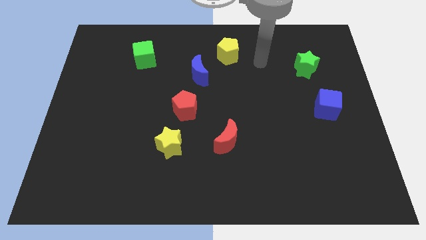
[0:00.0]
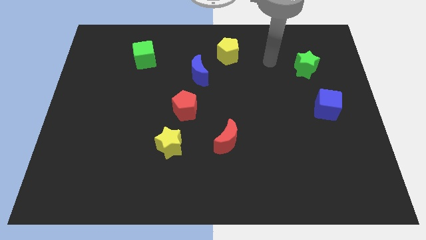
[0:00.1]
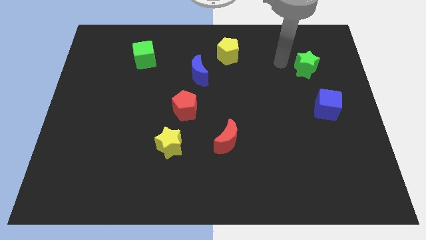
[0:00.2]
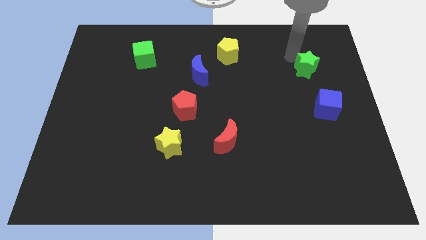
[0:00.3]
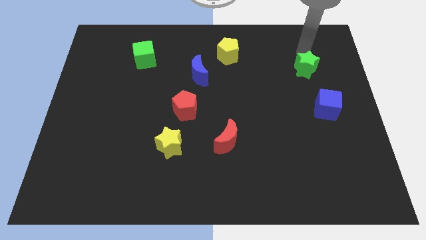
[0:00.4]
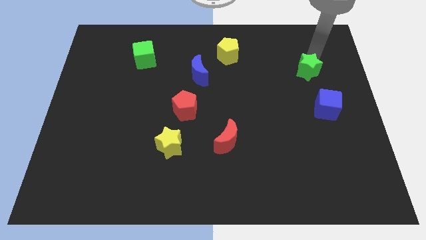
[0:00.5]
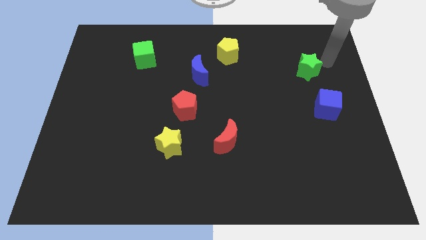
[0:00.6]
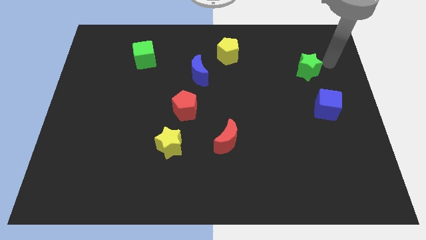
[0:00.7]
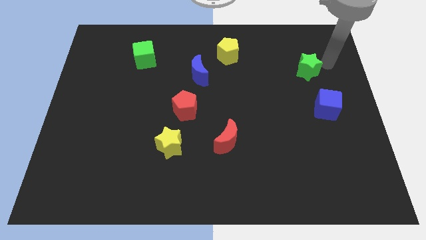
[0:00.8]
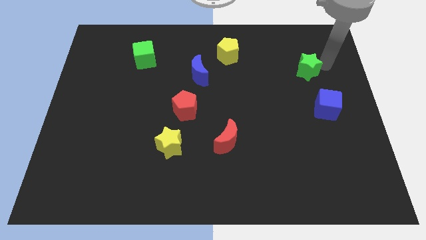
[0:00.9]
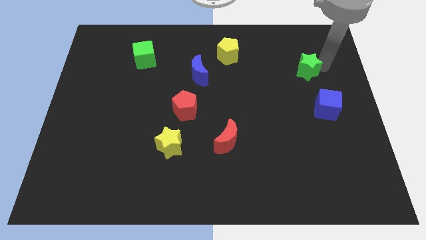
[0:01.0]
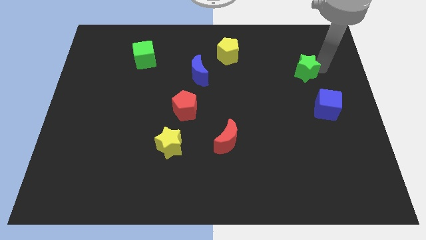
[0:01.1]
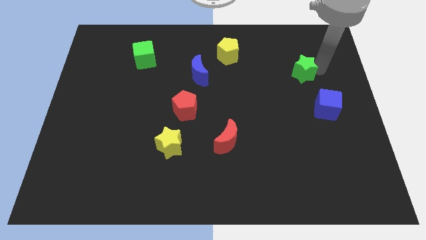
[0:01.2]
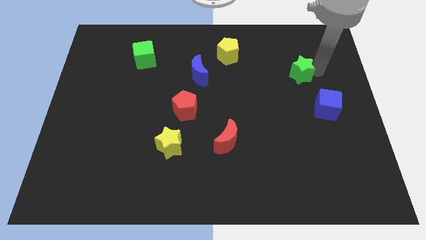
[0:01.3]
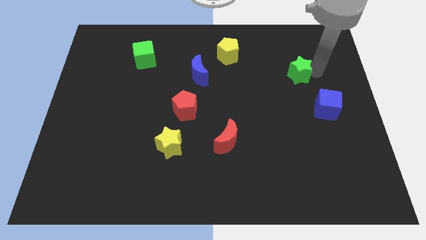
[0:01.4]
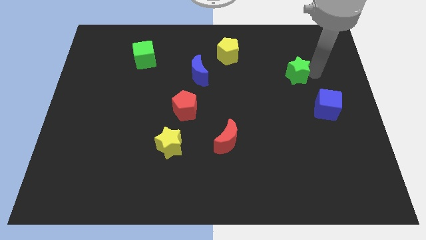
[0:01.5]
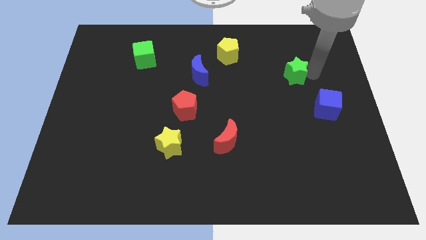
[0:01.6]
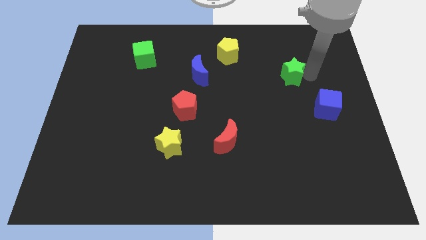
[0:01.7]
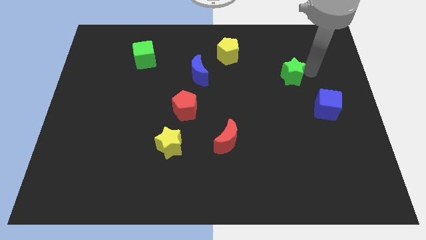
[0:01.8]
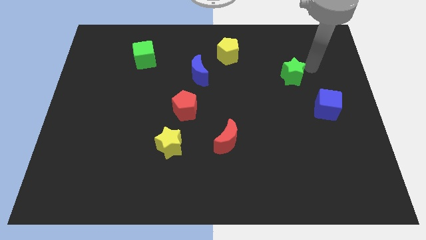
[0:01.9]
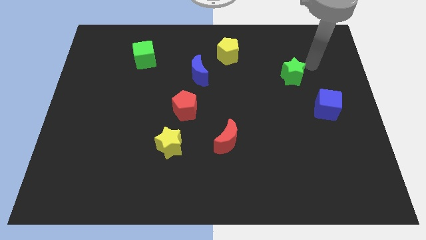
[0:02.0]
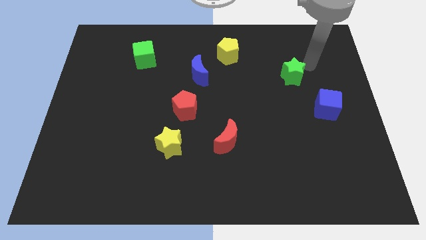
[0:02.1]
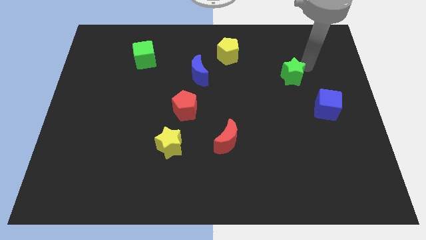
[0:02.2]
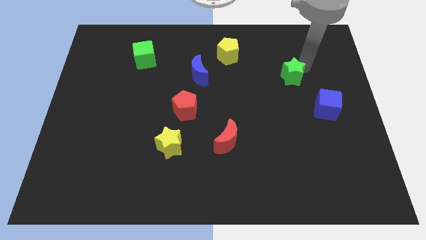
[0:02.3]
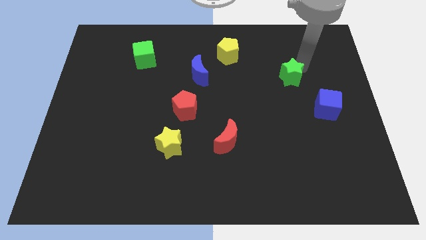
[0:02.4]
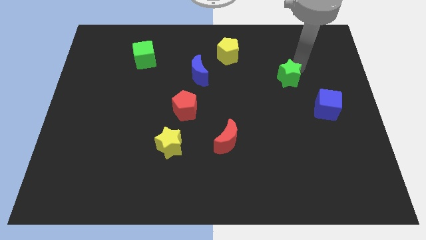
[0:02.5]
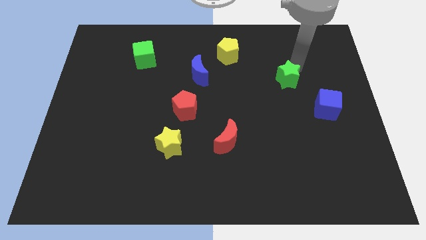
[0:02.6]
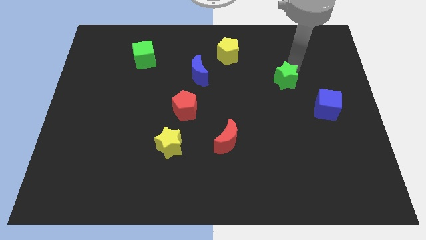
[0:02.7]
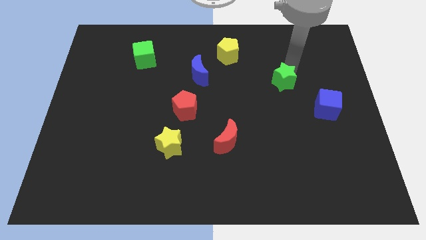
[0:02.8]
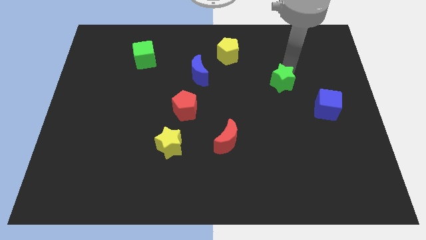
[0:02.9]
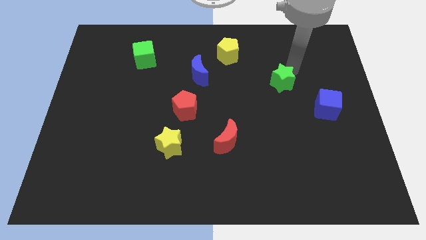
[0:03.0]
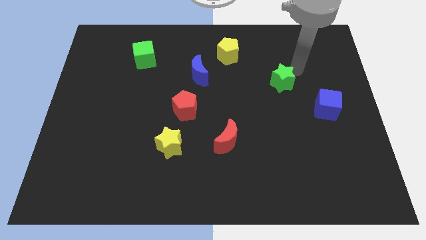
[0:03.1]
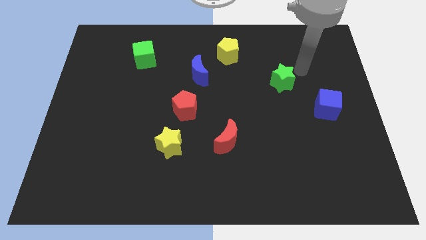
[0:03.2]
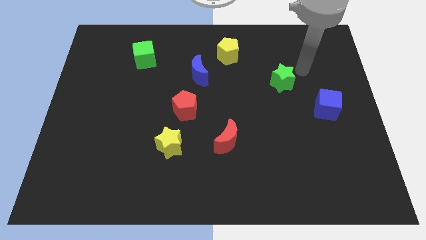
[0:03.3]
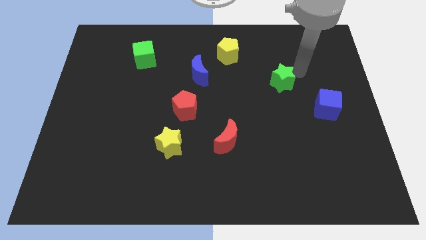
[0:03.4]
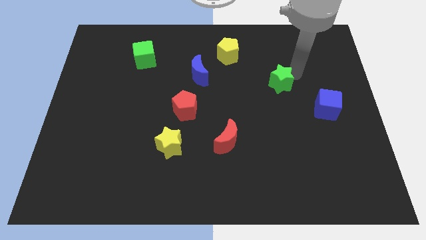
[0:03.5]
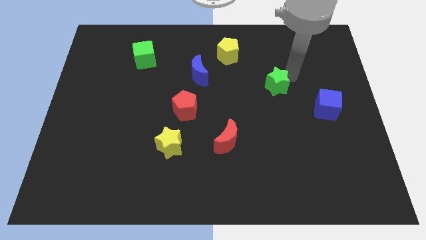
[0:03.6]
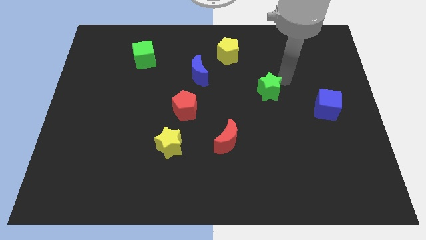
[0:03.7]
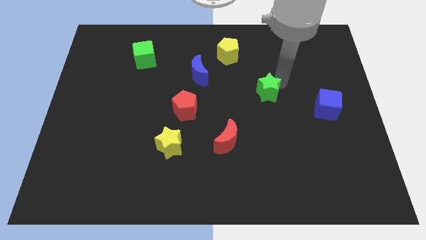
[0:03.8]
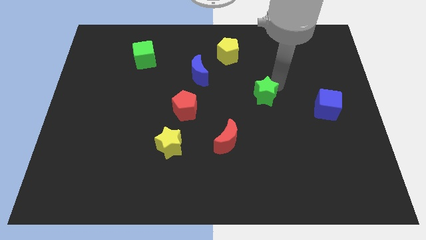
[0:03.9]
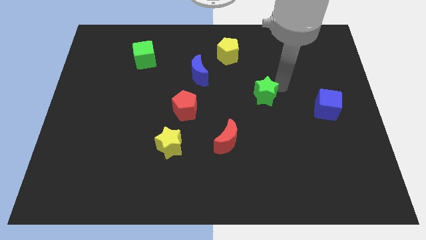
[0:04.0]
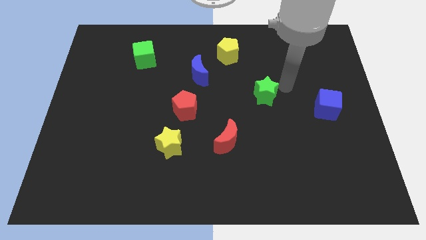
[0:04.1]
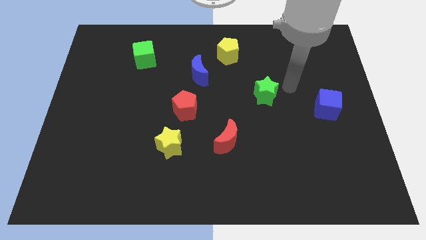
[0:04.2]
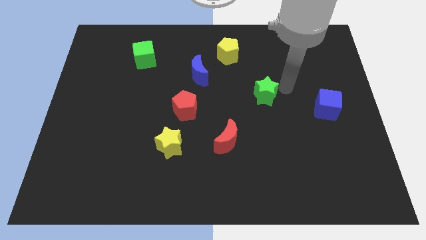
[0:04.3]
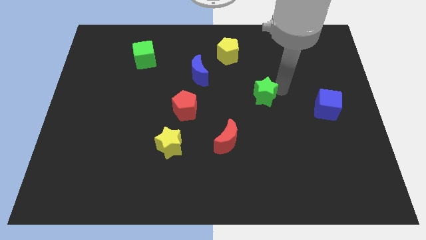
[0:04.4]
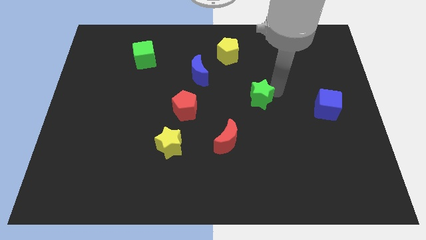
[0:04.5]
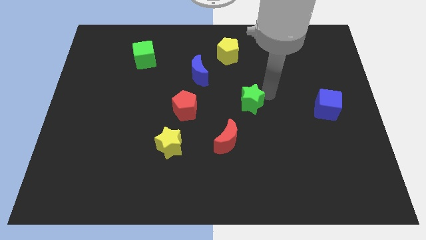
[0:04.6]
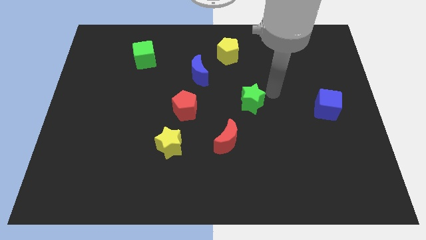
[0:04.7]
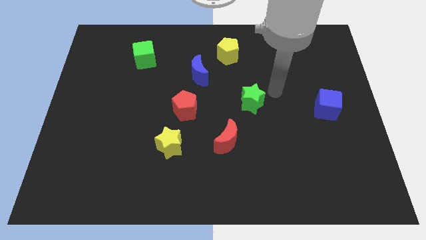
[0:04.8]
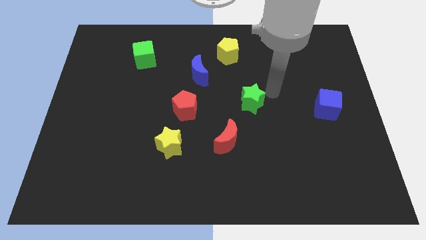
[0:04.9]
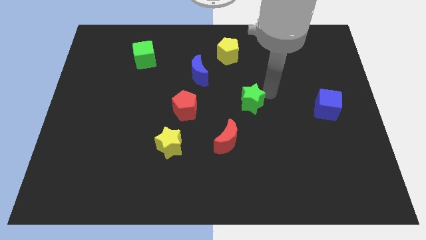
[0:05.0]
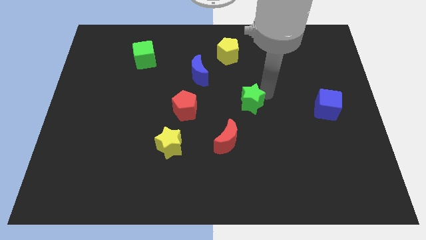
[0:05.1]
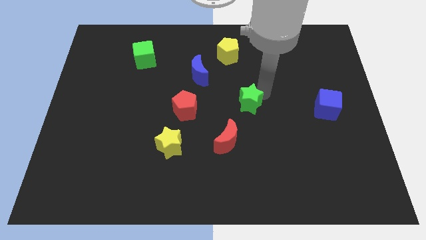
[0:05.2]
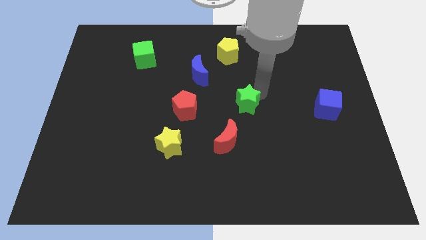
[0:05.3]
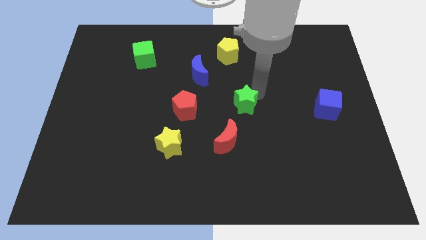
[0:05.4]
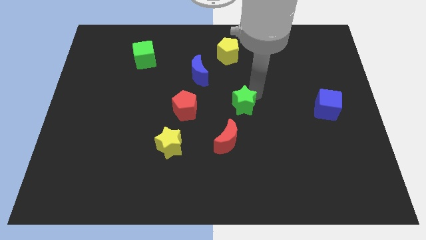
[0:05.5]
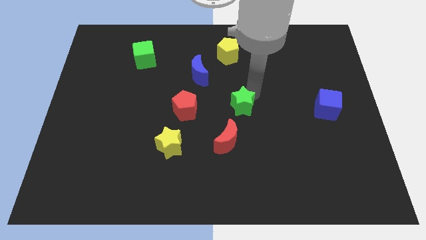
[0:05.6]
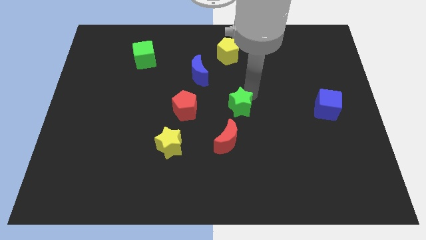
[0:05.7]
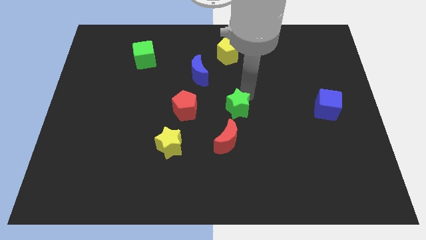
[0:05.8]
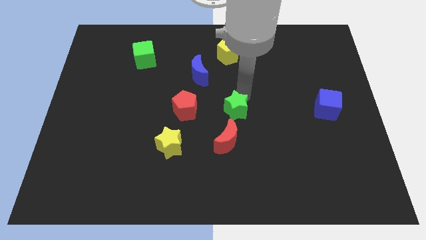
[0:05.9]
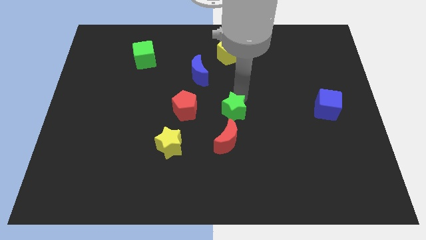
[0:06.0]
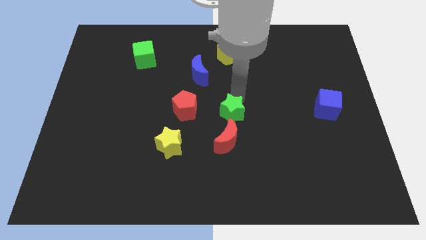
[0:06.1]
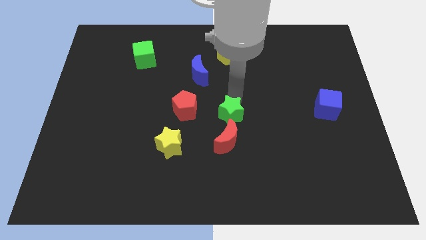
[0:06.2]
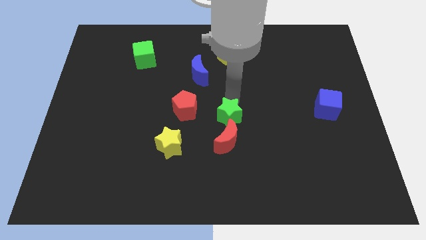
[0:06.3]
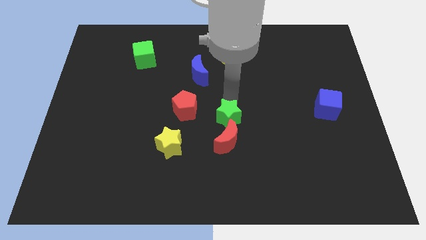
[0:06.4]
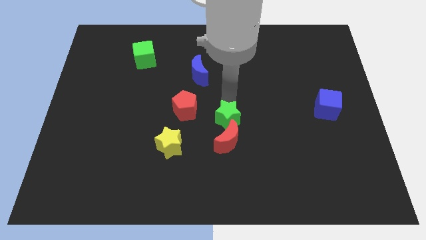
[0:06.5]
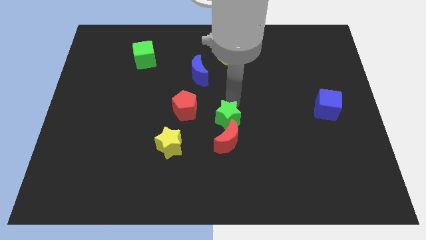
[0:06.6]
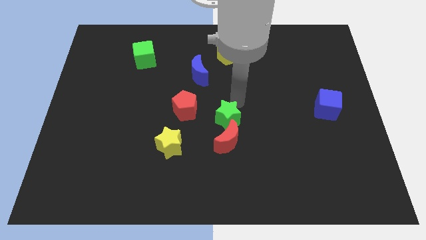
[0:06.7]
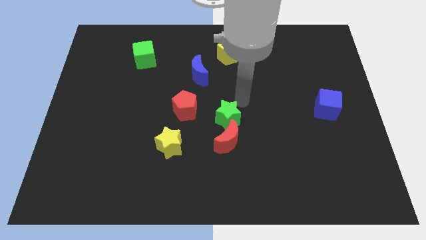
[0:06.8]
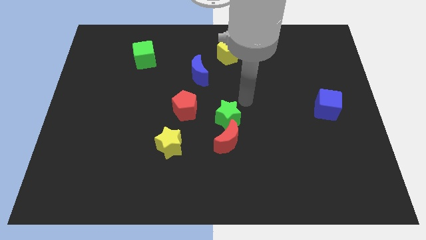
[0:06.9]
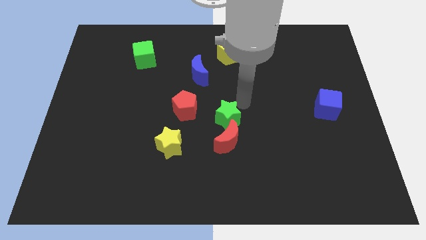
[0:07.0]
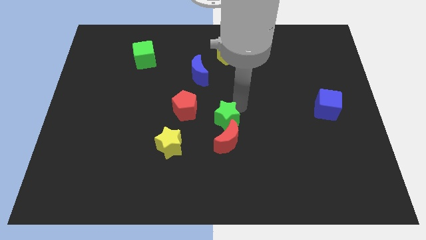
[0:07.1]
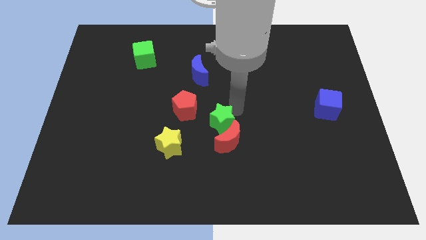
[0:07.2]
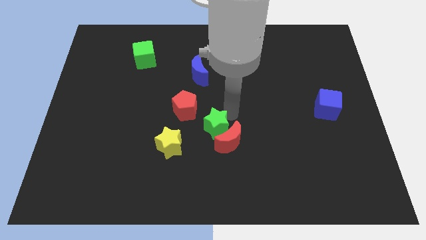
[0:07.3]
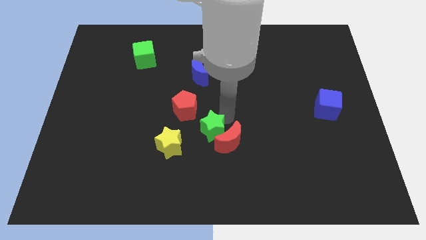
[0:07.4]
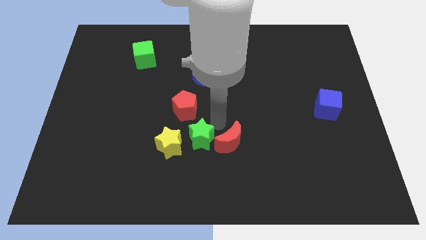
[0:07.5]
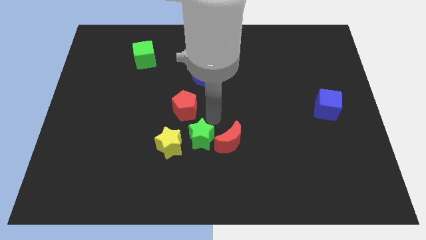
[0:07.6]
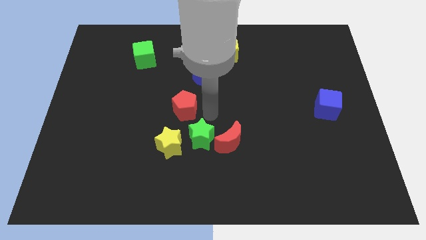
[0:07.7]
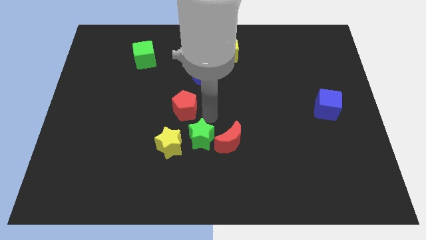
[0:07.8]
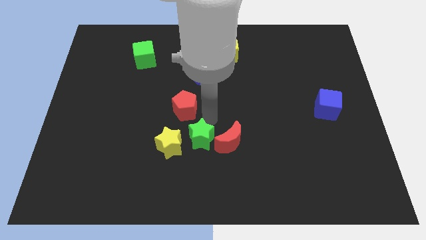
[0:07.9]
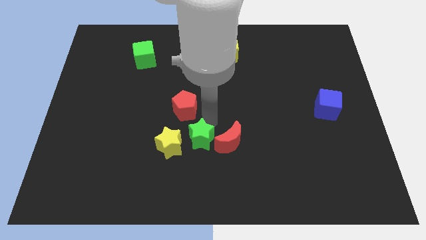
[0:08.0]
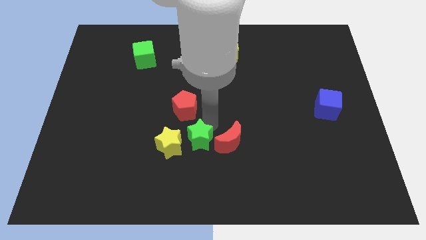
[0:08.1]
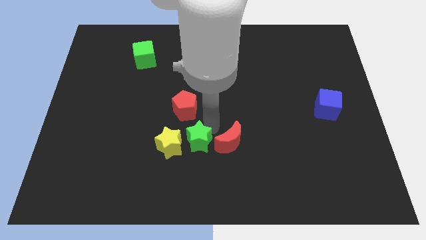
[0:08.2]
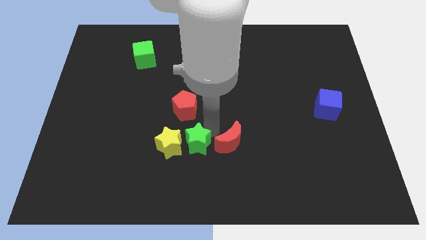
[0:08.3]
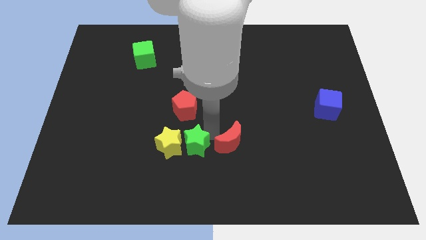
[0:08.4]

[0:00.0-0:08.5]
slide the green star to the bottom right side of the yellow star
